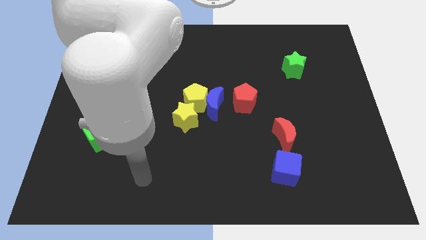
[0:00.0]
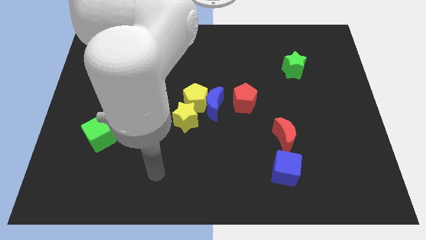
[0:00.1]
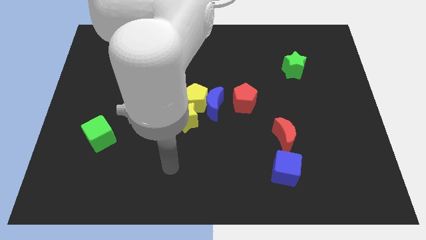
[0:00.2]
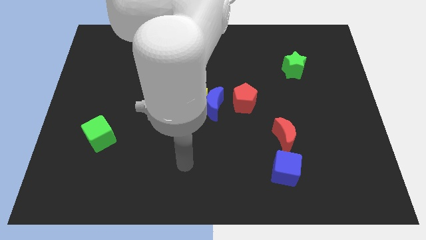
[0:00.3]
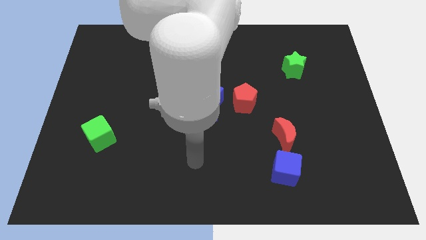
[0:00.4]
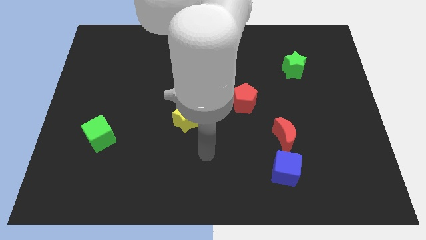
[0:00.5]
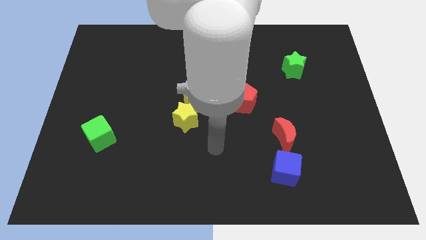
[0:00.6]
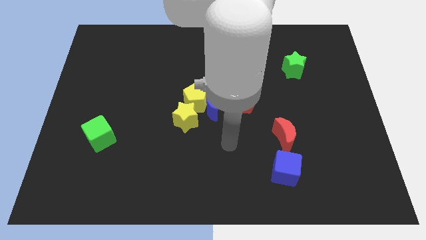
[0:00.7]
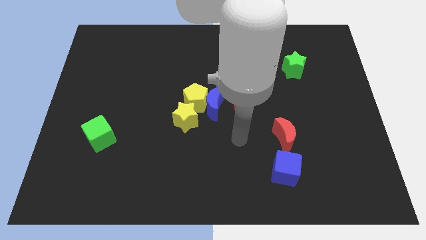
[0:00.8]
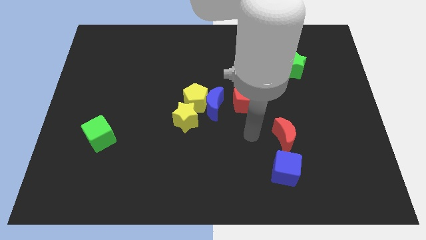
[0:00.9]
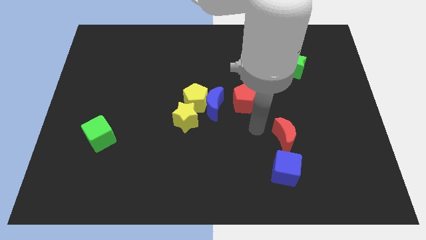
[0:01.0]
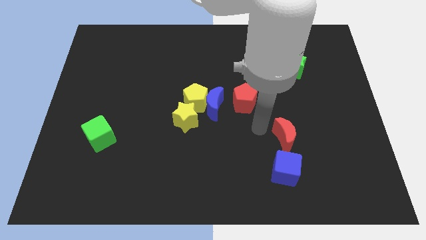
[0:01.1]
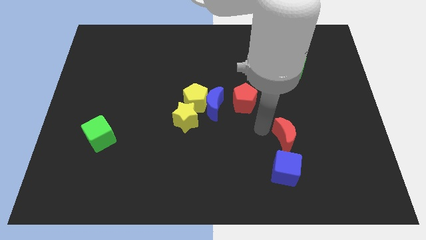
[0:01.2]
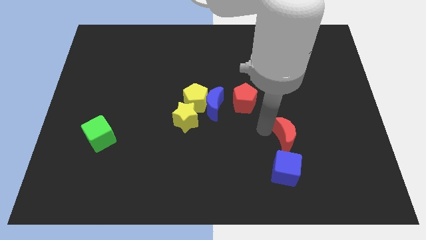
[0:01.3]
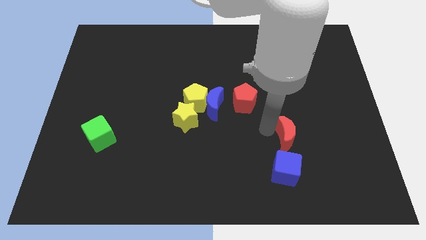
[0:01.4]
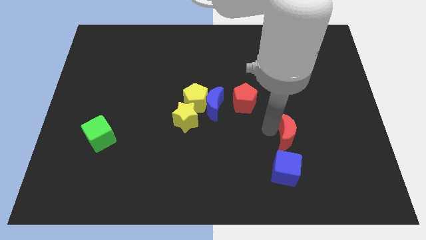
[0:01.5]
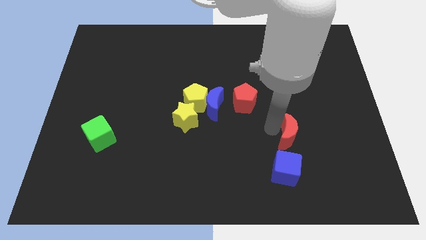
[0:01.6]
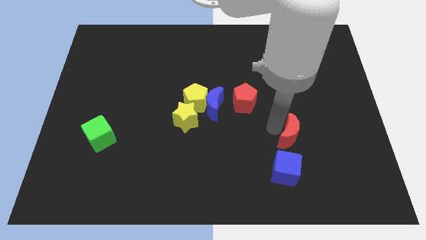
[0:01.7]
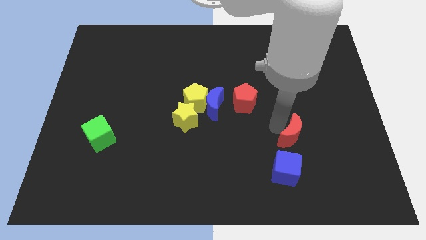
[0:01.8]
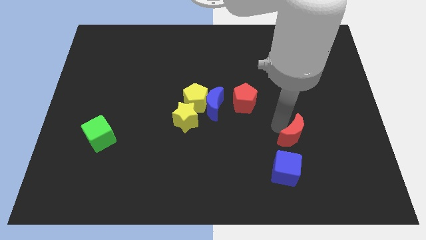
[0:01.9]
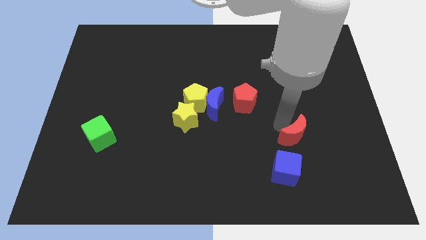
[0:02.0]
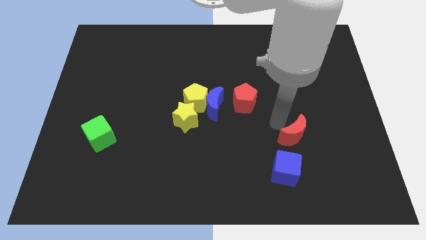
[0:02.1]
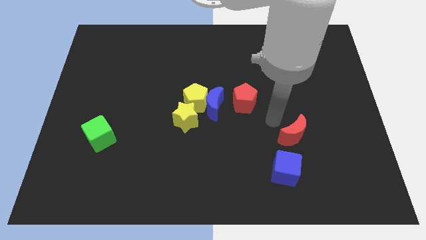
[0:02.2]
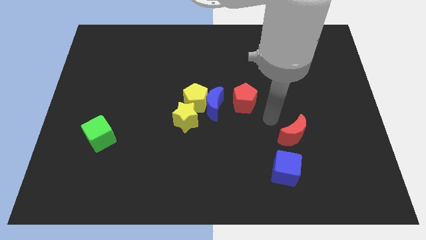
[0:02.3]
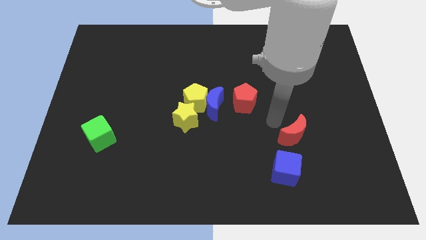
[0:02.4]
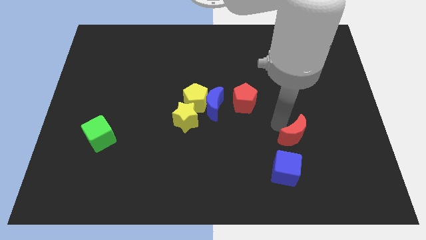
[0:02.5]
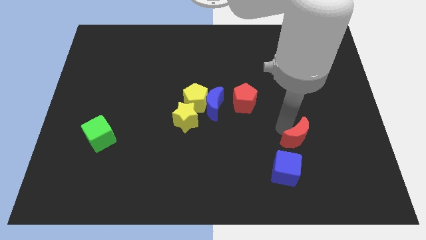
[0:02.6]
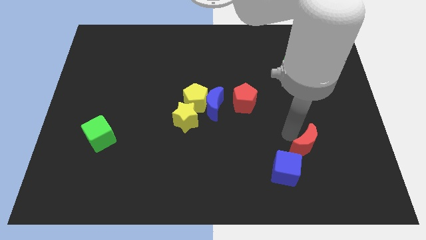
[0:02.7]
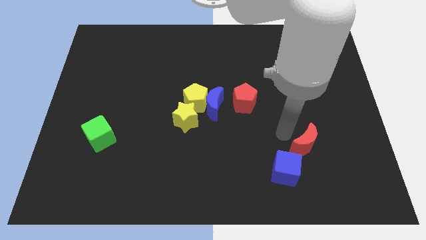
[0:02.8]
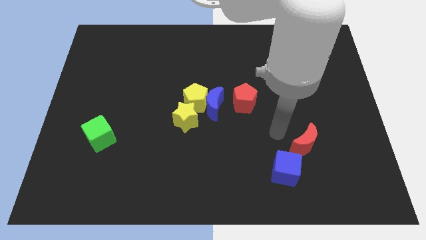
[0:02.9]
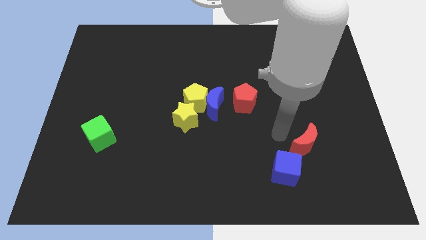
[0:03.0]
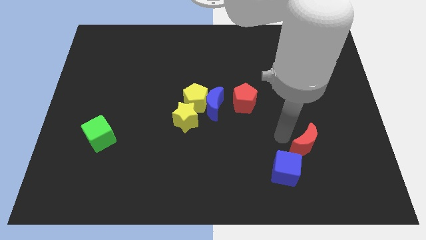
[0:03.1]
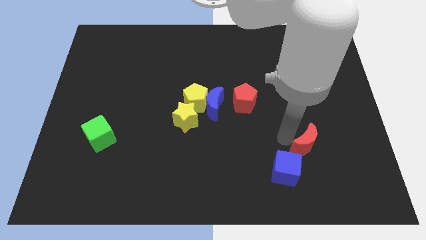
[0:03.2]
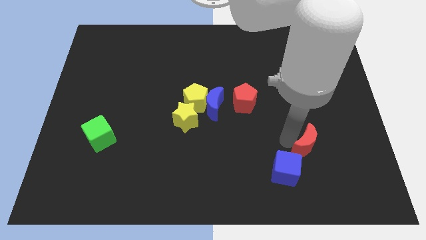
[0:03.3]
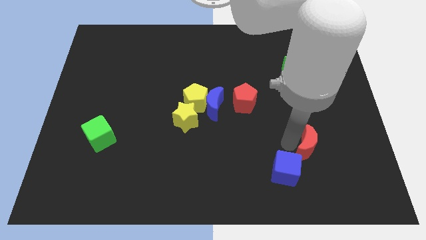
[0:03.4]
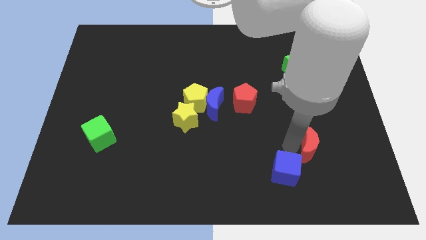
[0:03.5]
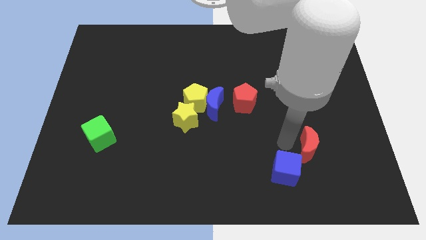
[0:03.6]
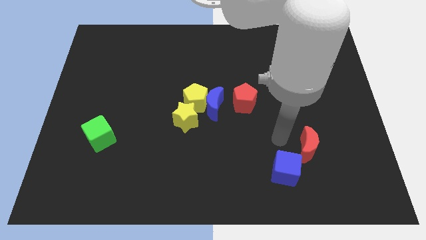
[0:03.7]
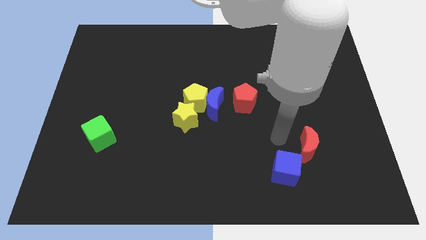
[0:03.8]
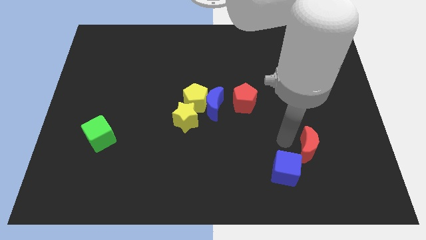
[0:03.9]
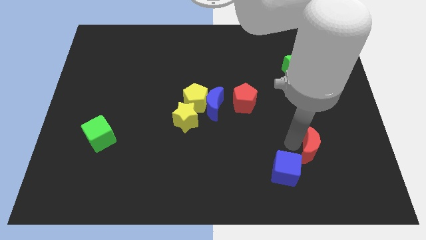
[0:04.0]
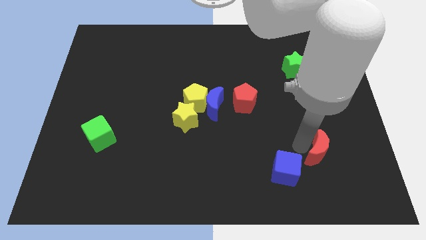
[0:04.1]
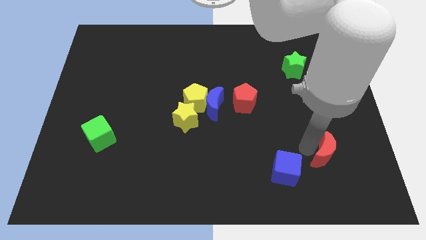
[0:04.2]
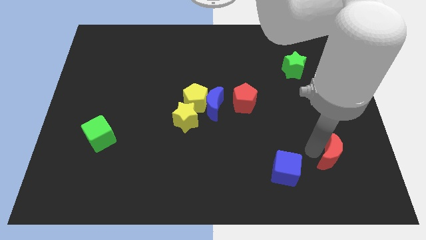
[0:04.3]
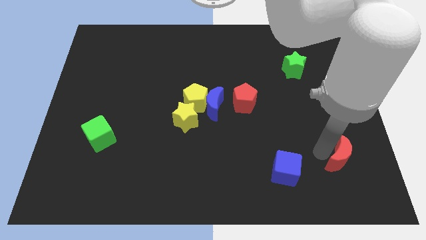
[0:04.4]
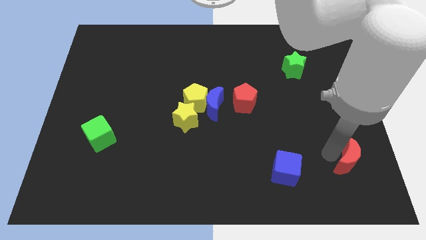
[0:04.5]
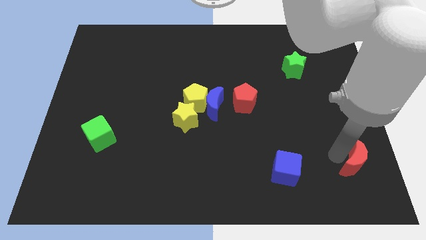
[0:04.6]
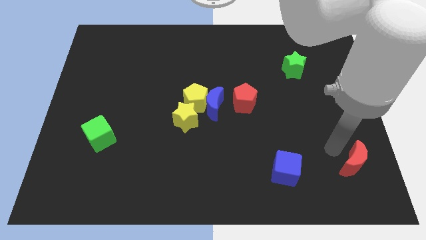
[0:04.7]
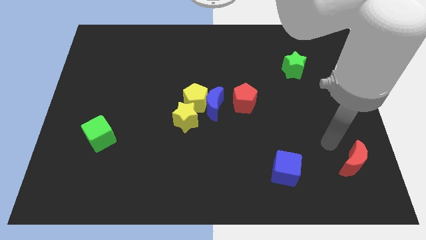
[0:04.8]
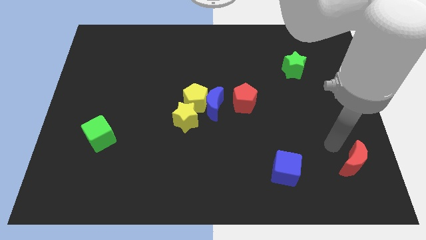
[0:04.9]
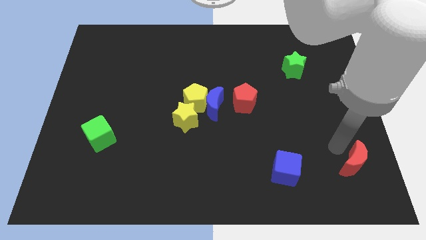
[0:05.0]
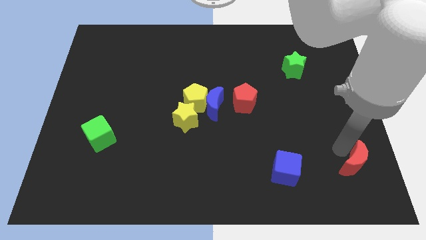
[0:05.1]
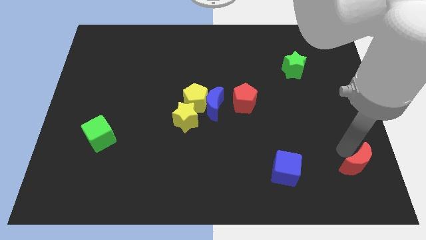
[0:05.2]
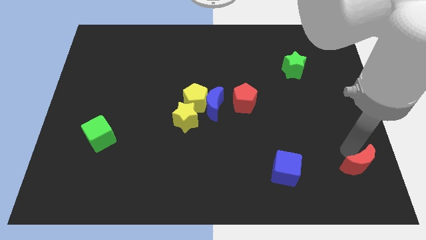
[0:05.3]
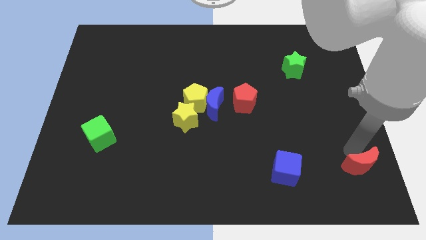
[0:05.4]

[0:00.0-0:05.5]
move the red moon to the bottom right of the board

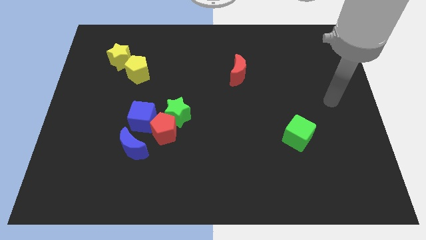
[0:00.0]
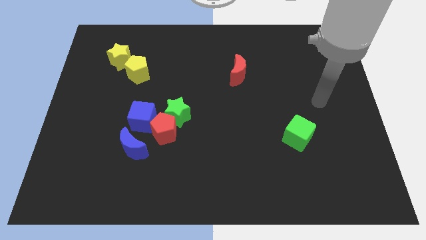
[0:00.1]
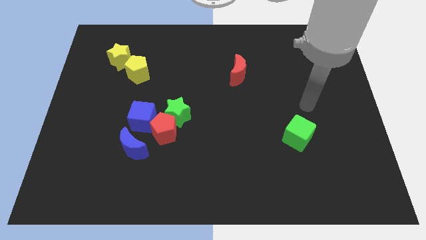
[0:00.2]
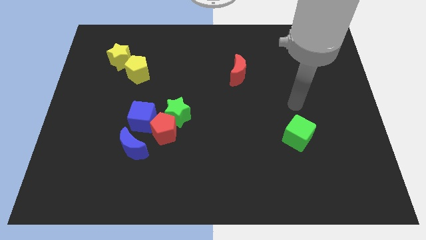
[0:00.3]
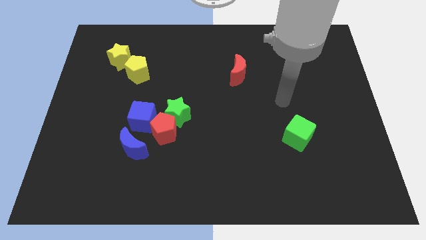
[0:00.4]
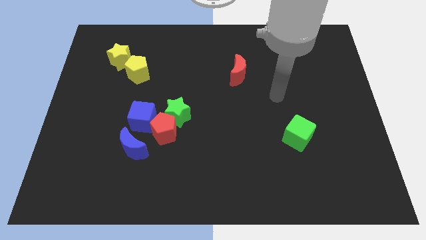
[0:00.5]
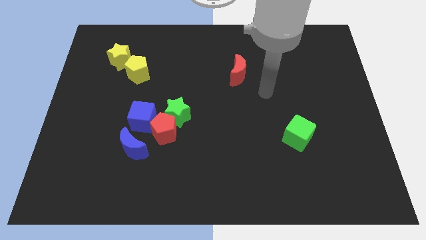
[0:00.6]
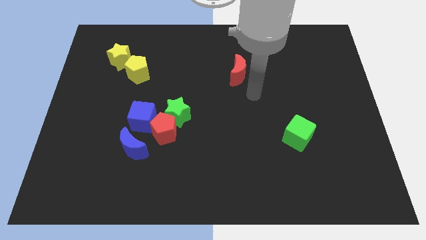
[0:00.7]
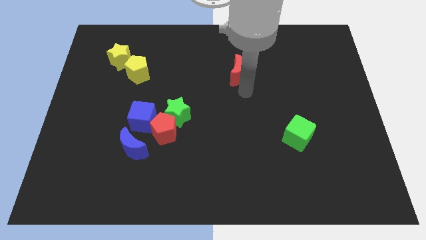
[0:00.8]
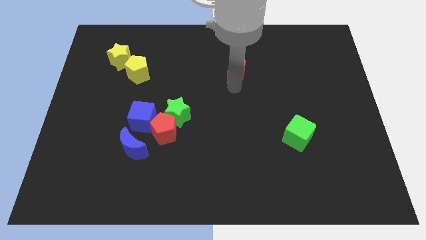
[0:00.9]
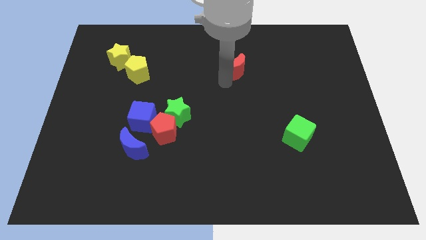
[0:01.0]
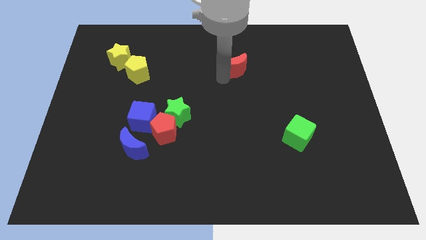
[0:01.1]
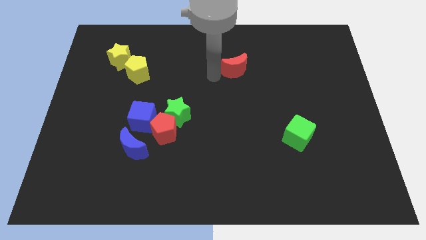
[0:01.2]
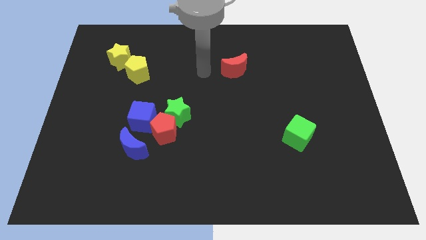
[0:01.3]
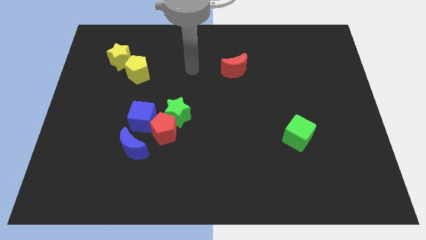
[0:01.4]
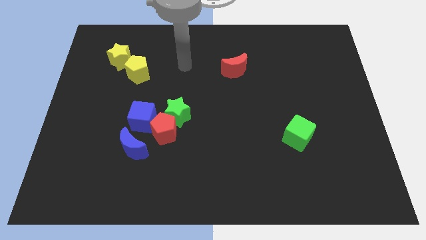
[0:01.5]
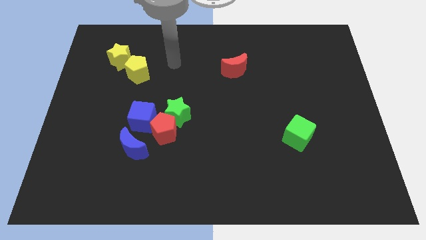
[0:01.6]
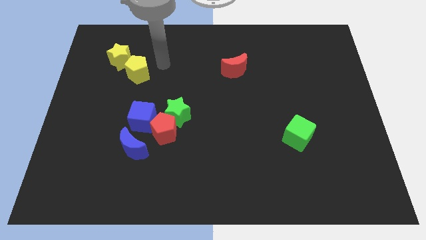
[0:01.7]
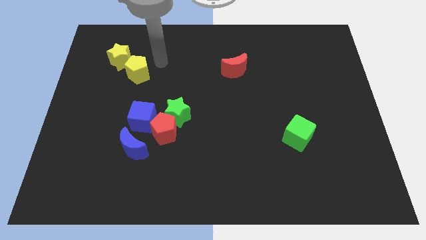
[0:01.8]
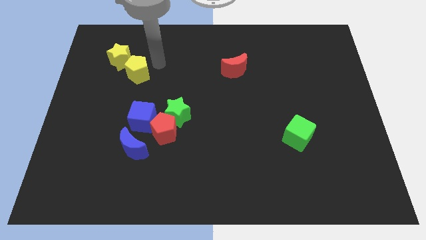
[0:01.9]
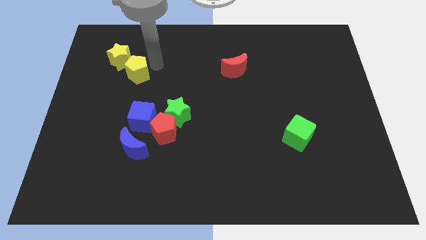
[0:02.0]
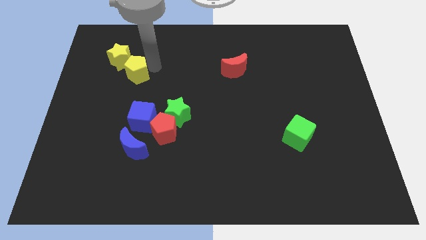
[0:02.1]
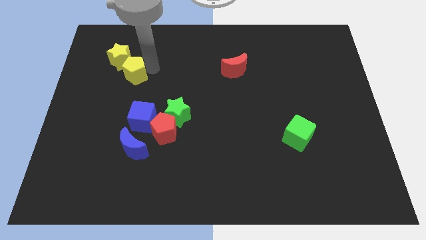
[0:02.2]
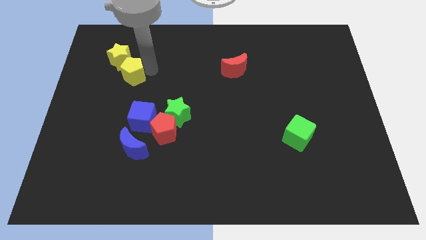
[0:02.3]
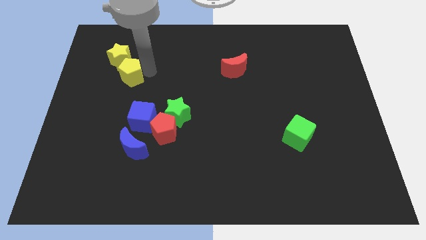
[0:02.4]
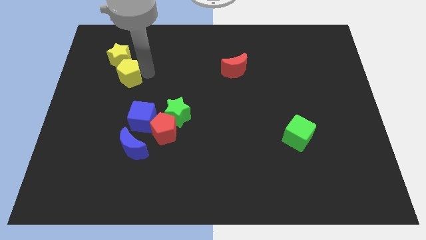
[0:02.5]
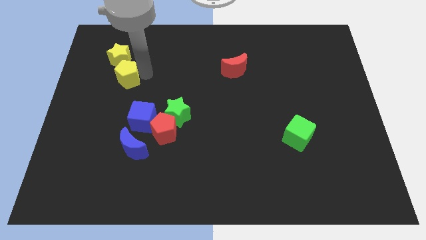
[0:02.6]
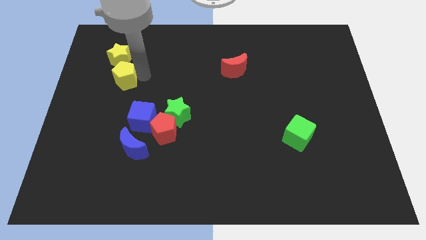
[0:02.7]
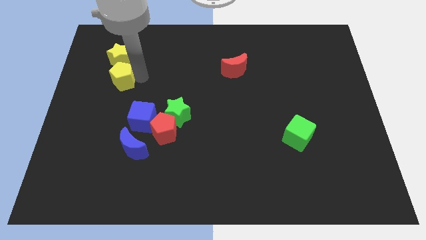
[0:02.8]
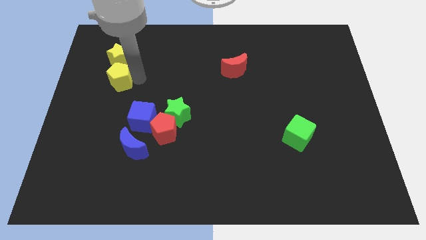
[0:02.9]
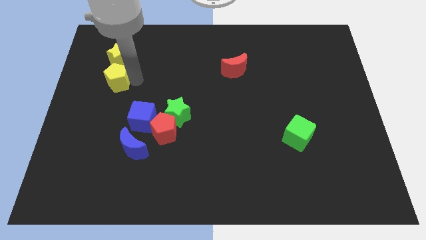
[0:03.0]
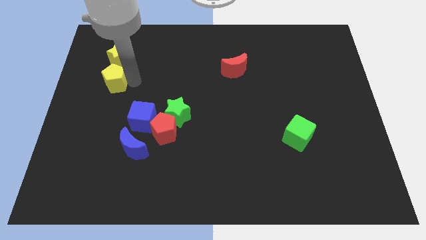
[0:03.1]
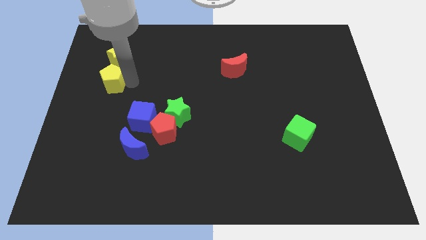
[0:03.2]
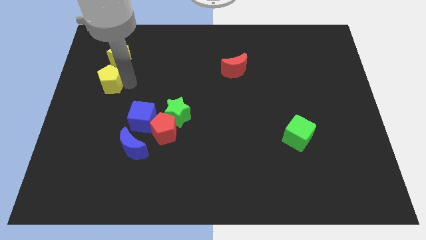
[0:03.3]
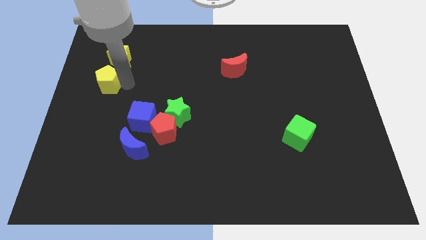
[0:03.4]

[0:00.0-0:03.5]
push the yellow pentagon to the left side of the board
